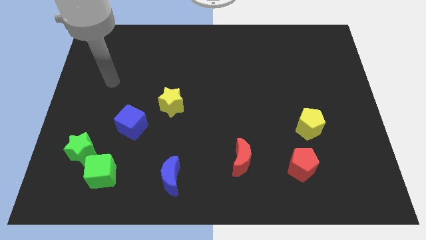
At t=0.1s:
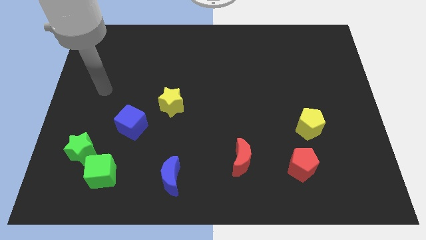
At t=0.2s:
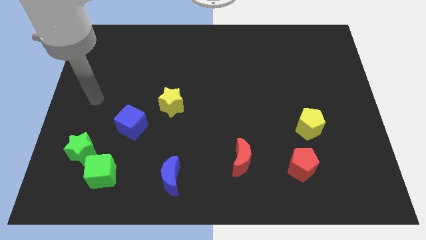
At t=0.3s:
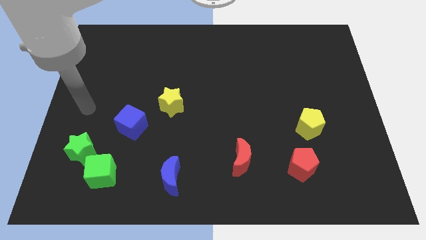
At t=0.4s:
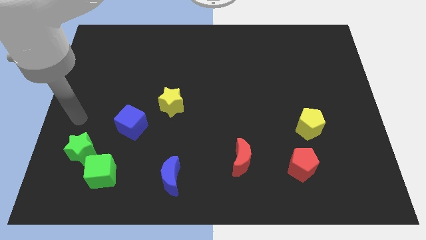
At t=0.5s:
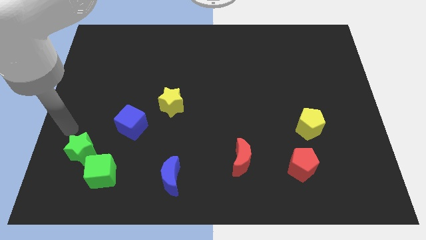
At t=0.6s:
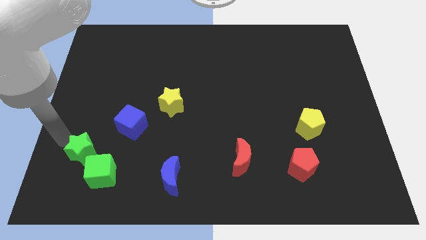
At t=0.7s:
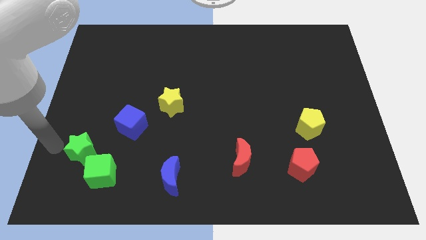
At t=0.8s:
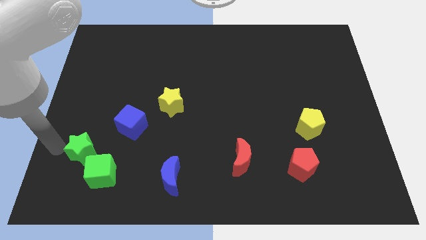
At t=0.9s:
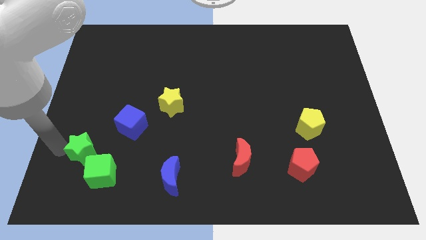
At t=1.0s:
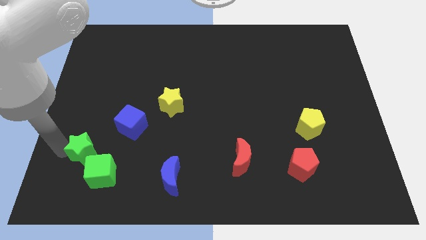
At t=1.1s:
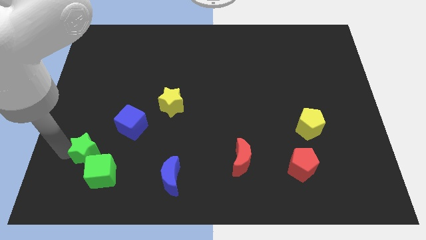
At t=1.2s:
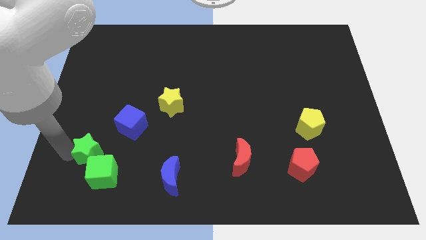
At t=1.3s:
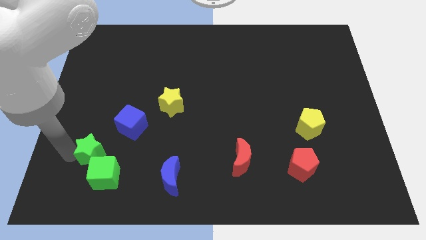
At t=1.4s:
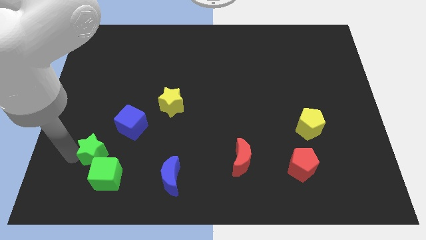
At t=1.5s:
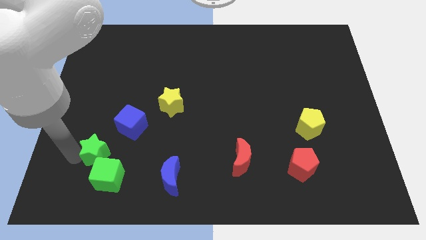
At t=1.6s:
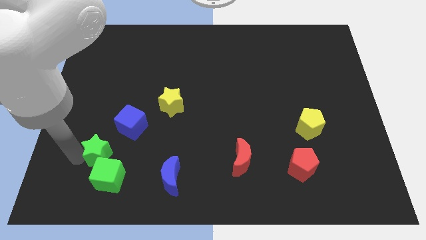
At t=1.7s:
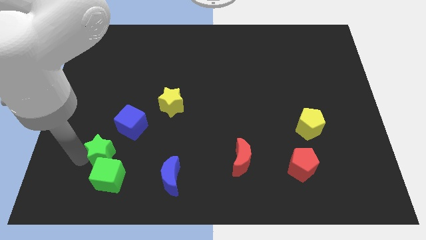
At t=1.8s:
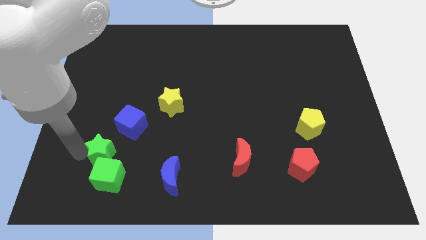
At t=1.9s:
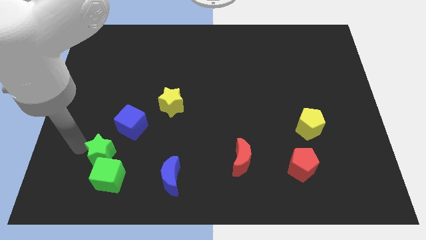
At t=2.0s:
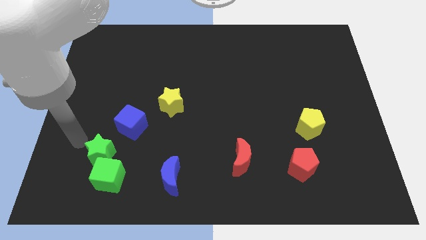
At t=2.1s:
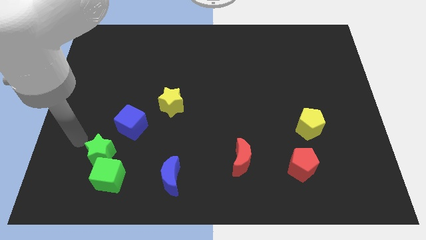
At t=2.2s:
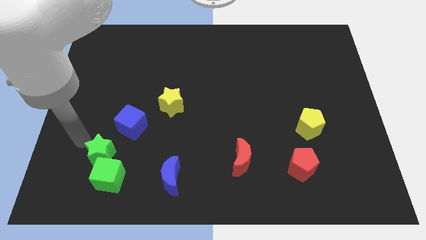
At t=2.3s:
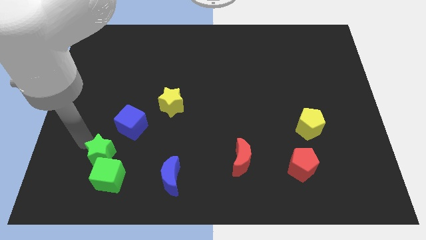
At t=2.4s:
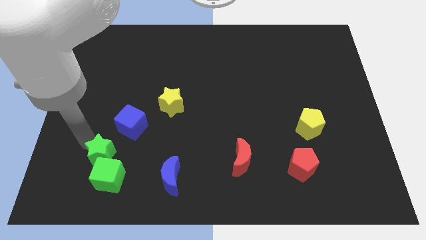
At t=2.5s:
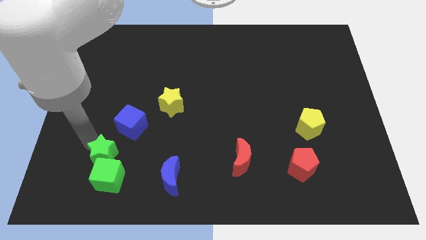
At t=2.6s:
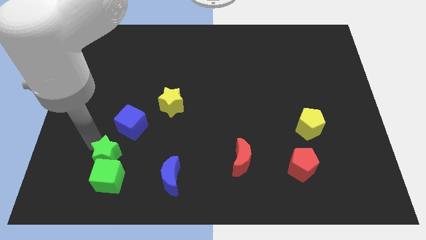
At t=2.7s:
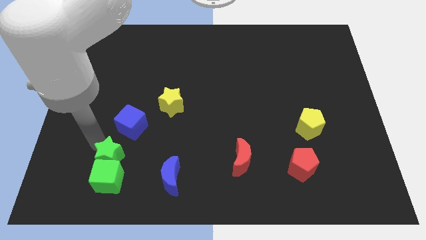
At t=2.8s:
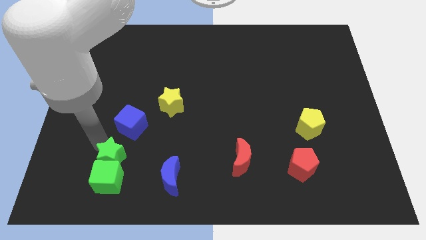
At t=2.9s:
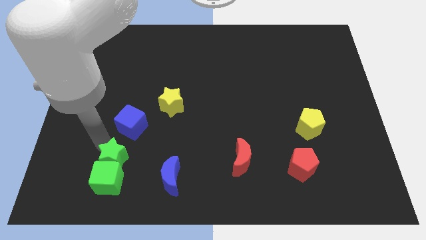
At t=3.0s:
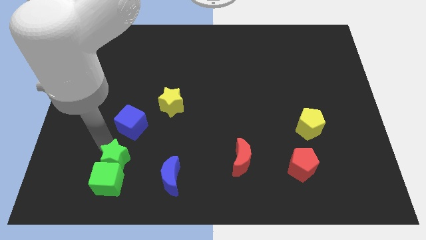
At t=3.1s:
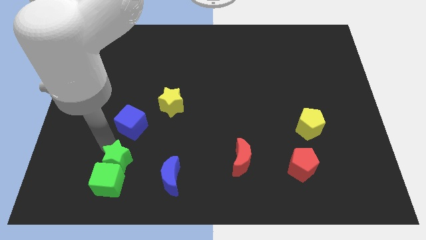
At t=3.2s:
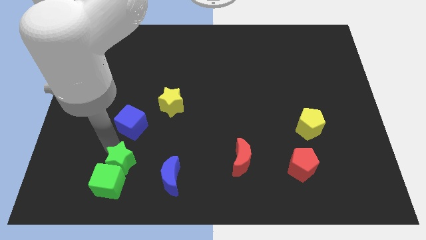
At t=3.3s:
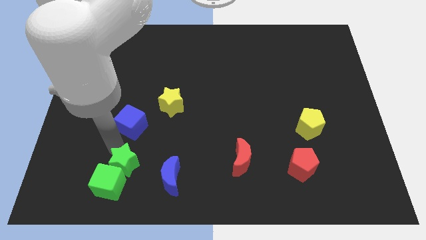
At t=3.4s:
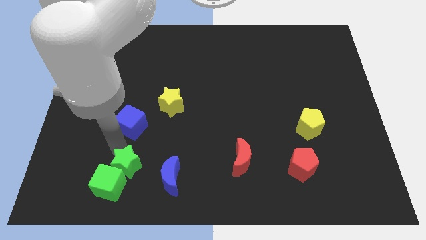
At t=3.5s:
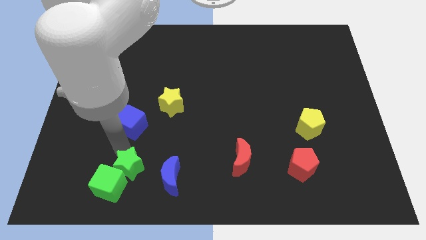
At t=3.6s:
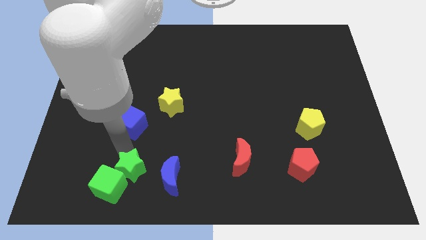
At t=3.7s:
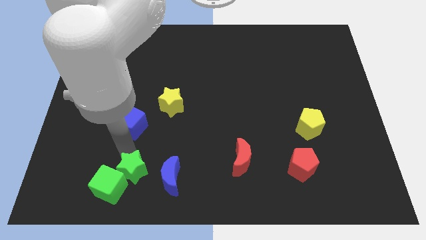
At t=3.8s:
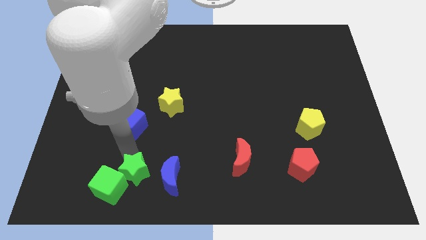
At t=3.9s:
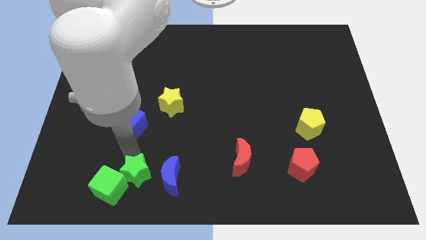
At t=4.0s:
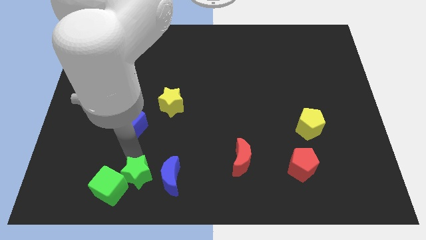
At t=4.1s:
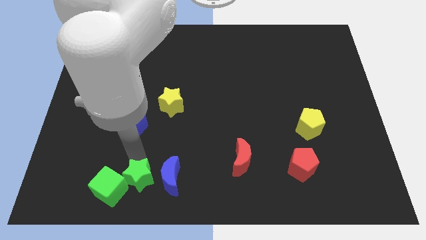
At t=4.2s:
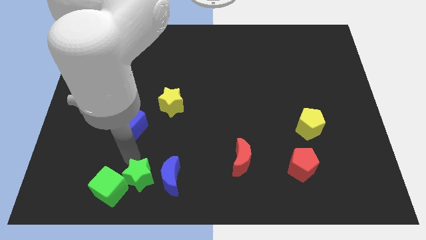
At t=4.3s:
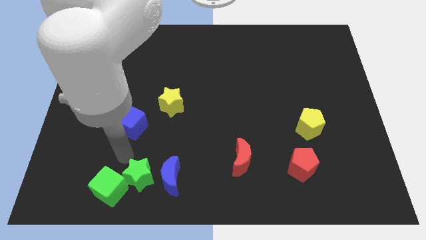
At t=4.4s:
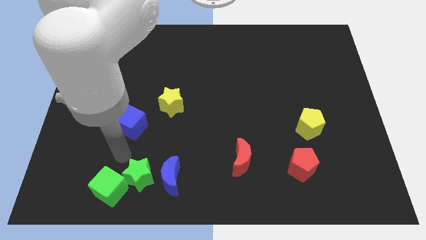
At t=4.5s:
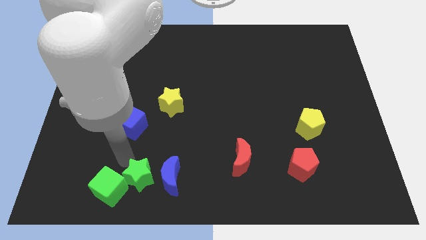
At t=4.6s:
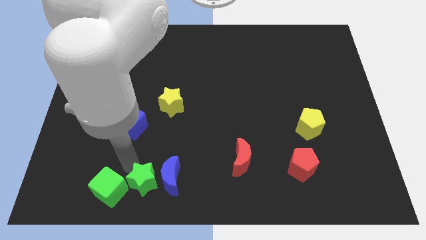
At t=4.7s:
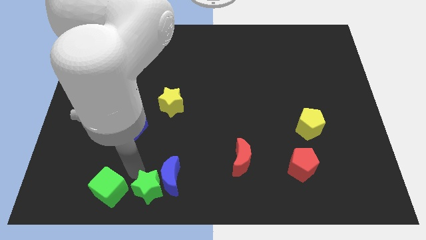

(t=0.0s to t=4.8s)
push the green star to the bottom side

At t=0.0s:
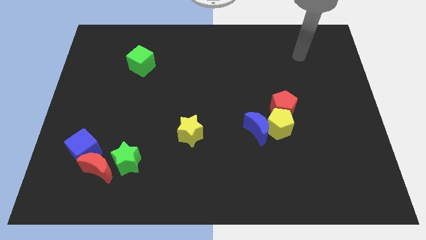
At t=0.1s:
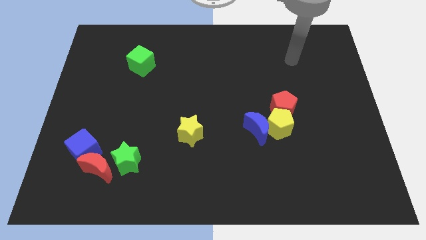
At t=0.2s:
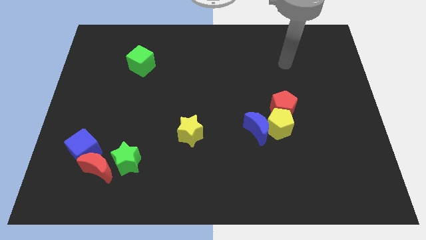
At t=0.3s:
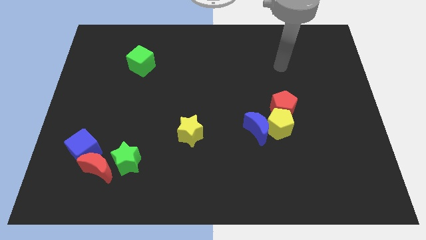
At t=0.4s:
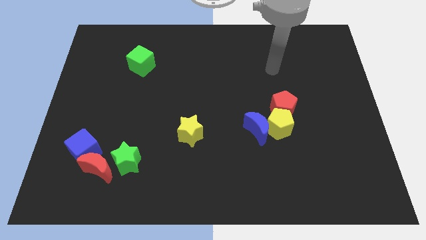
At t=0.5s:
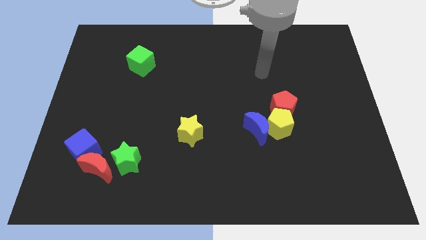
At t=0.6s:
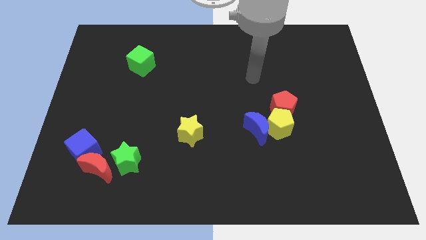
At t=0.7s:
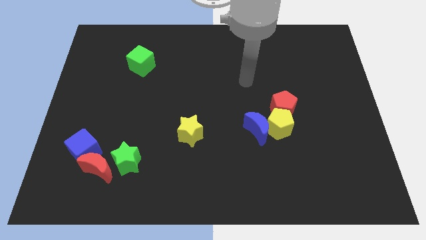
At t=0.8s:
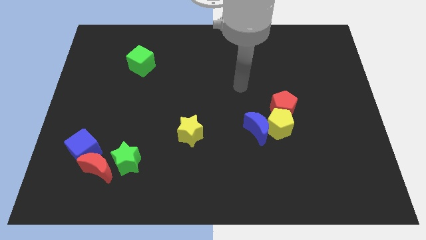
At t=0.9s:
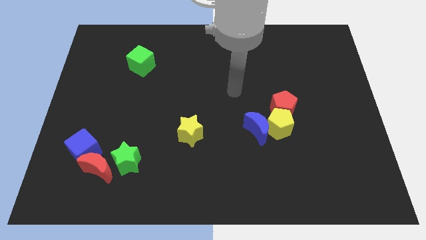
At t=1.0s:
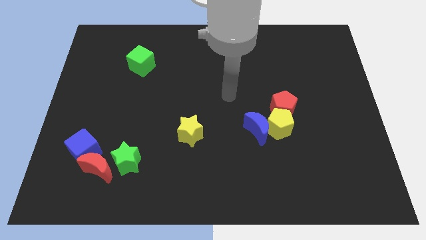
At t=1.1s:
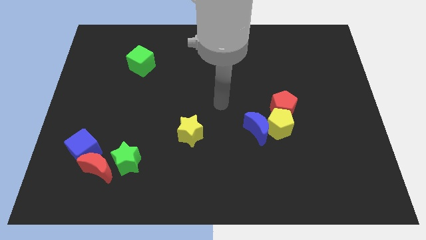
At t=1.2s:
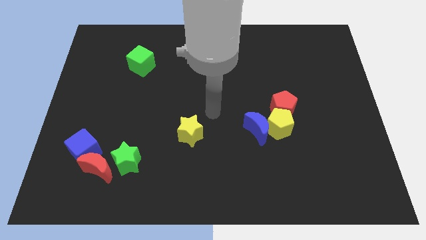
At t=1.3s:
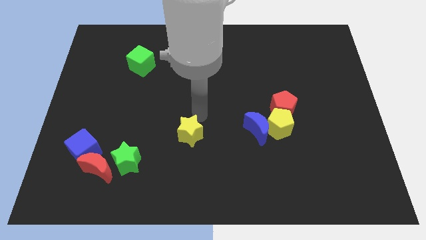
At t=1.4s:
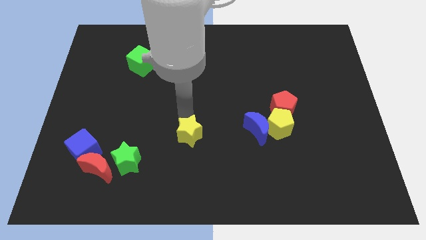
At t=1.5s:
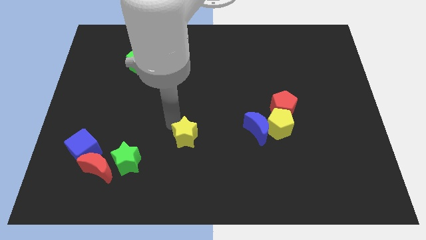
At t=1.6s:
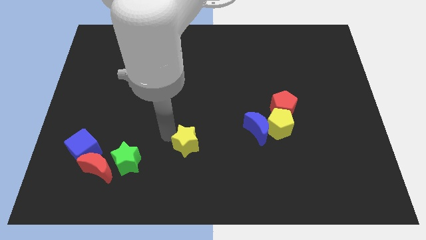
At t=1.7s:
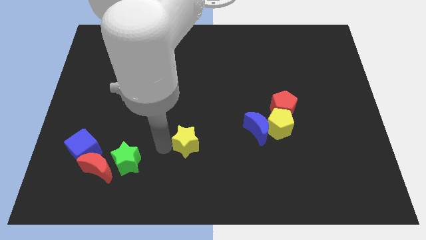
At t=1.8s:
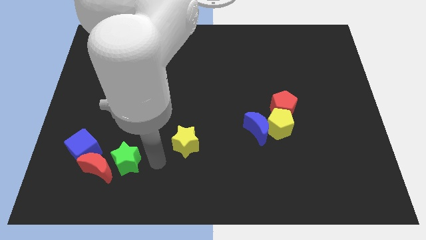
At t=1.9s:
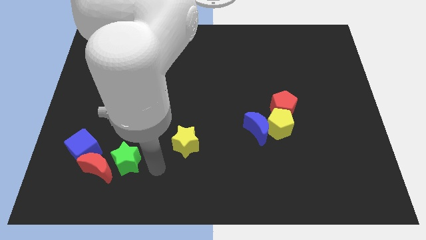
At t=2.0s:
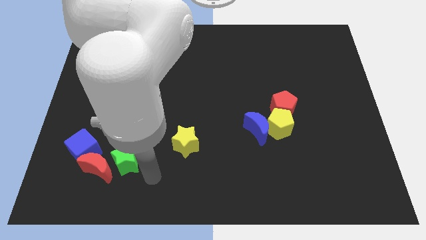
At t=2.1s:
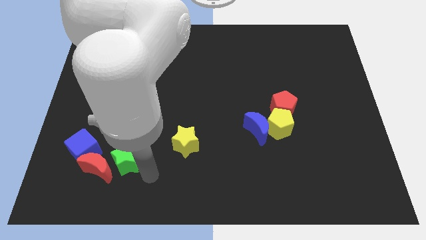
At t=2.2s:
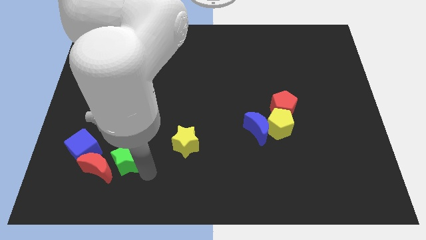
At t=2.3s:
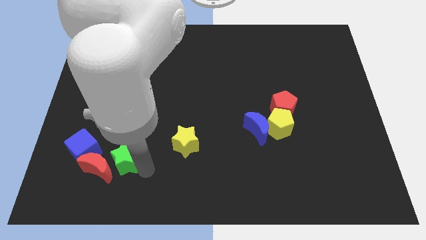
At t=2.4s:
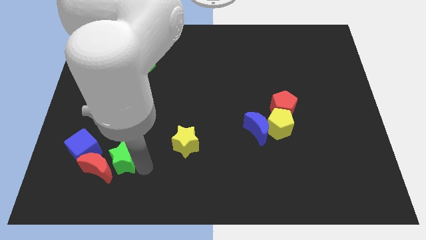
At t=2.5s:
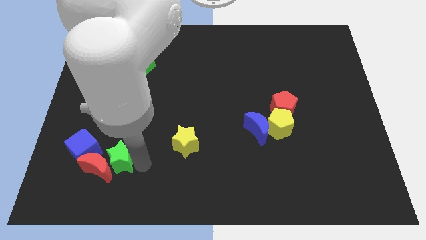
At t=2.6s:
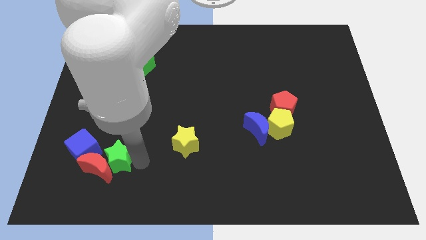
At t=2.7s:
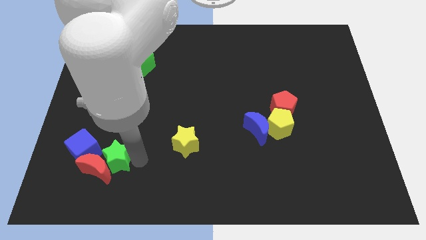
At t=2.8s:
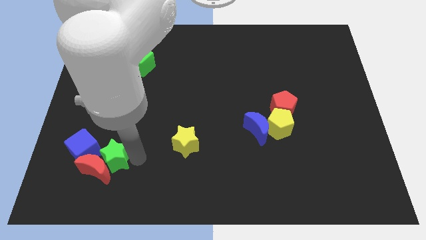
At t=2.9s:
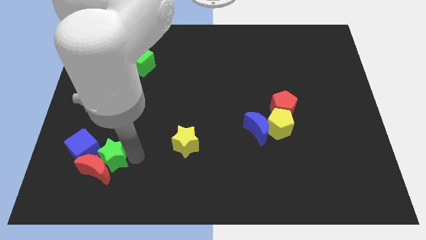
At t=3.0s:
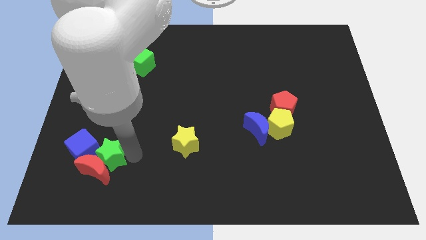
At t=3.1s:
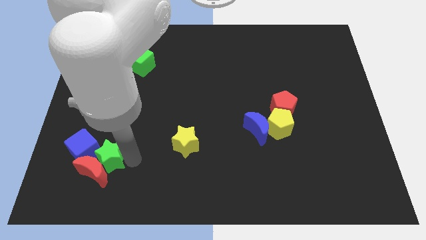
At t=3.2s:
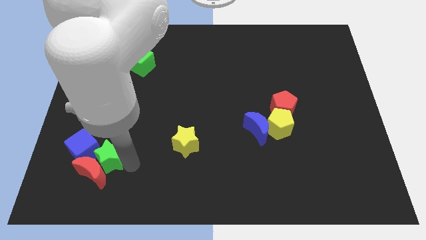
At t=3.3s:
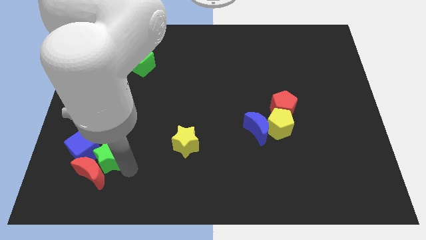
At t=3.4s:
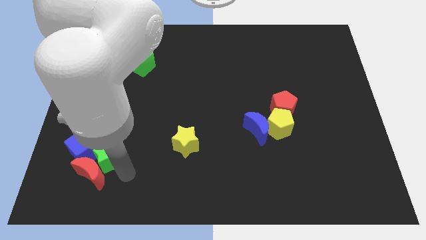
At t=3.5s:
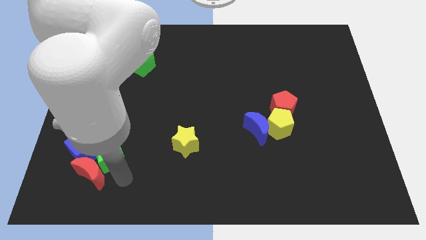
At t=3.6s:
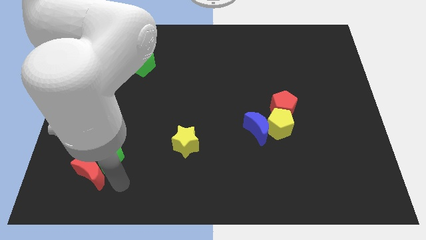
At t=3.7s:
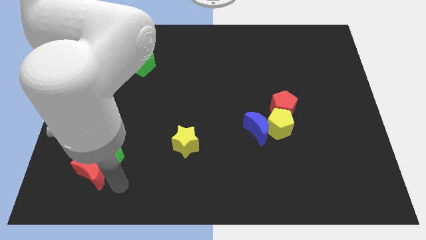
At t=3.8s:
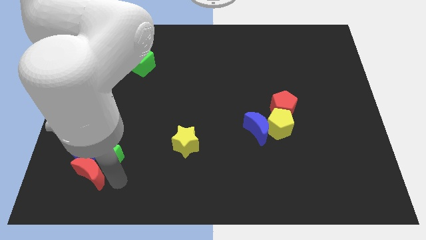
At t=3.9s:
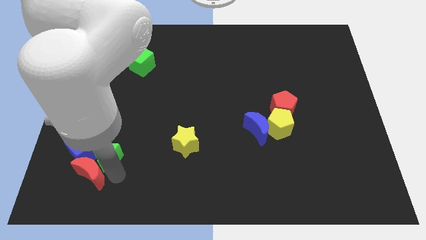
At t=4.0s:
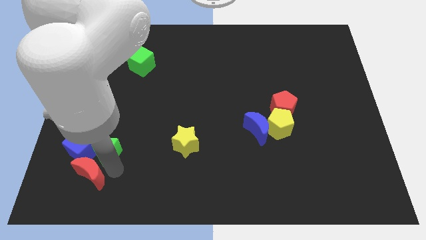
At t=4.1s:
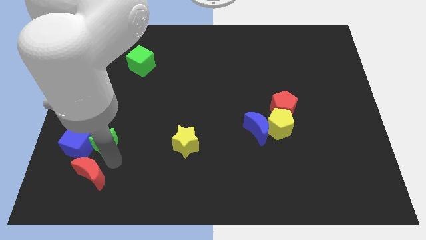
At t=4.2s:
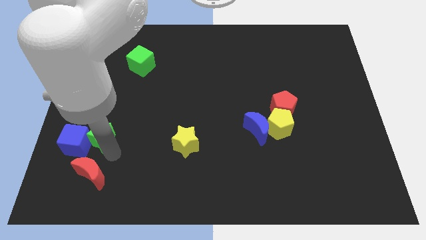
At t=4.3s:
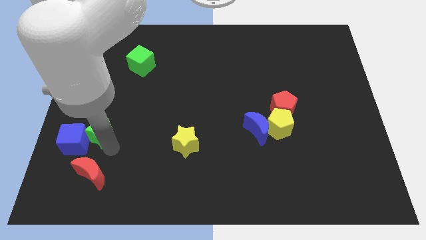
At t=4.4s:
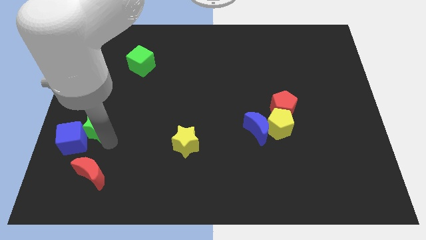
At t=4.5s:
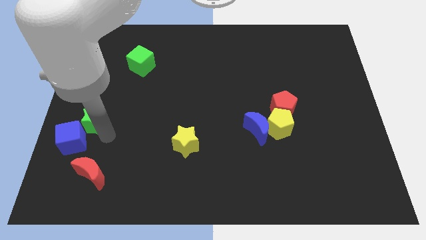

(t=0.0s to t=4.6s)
move the green star to the left side of the board
